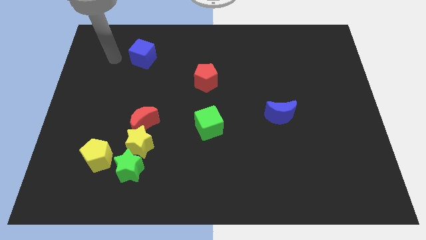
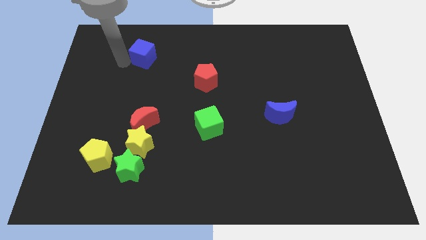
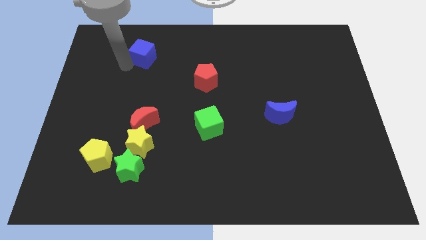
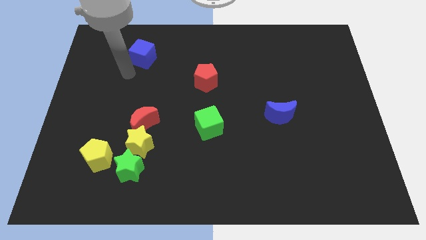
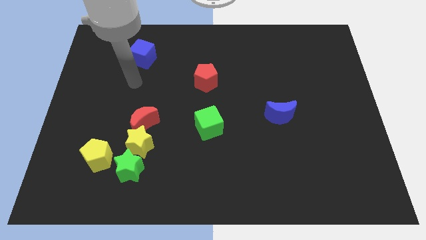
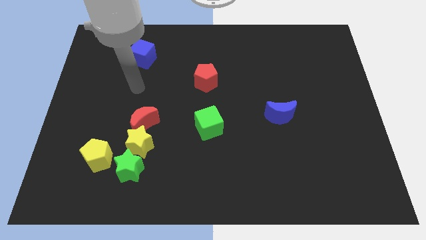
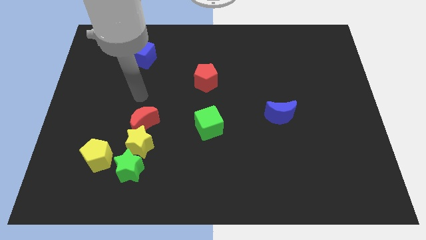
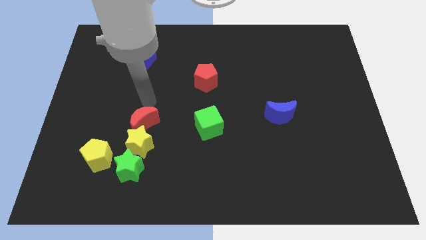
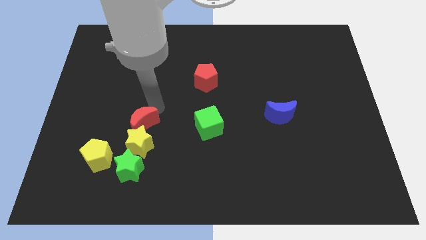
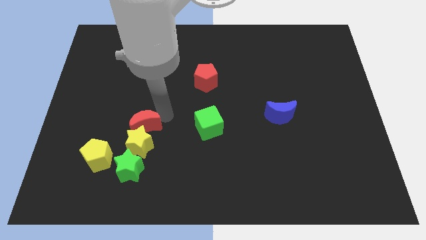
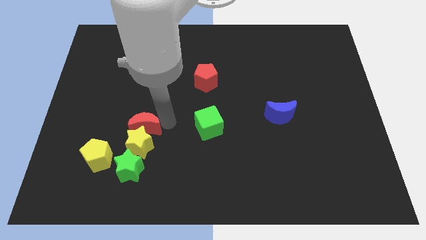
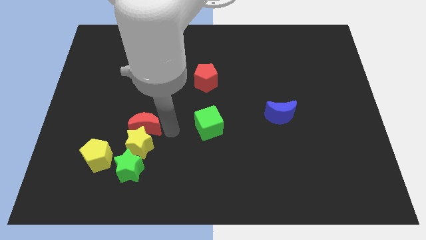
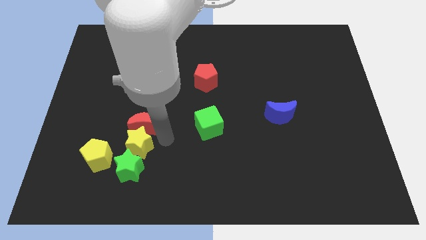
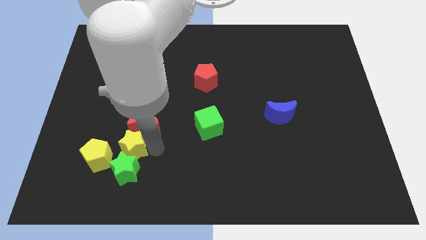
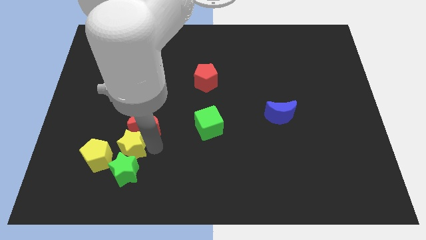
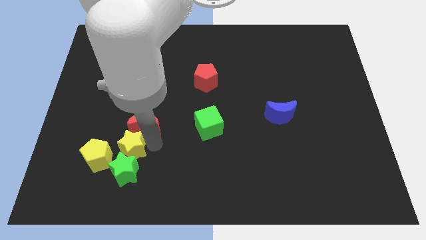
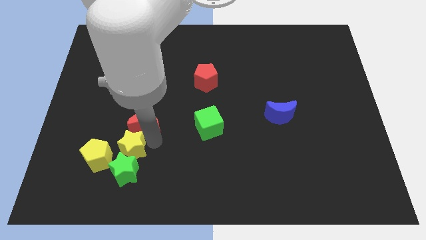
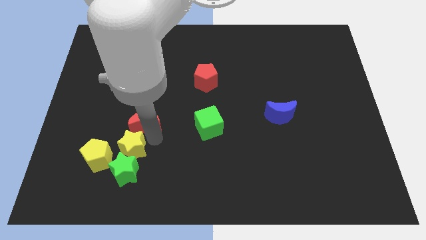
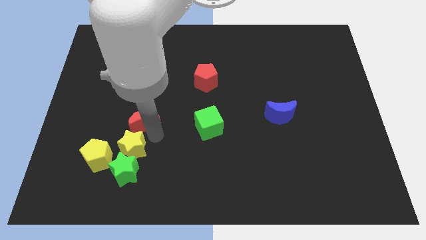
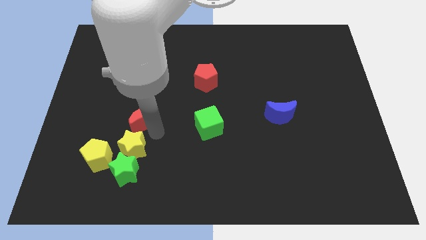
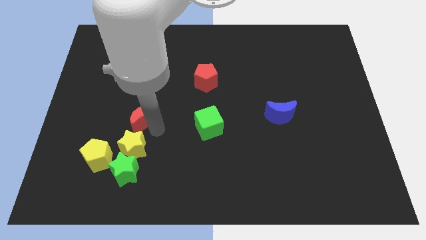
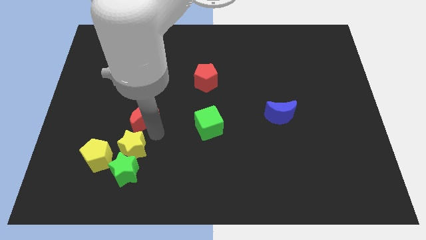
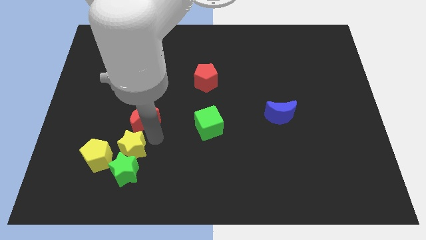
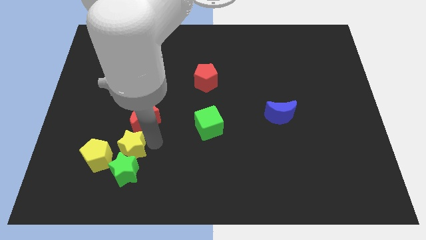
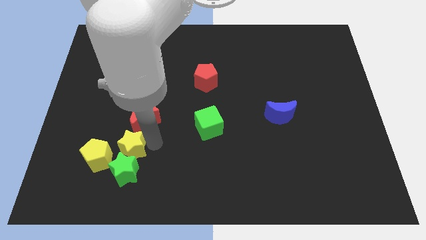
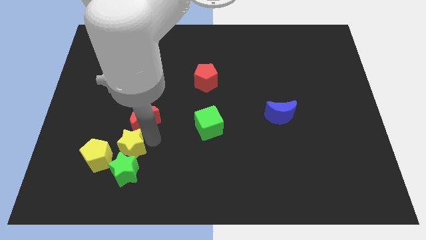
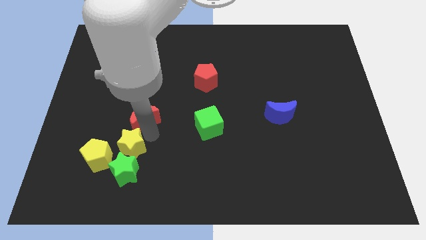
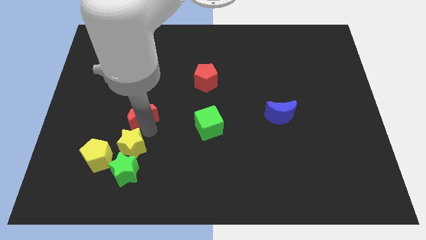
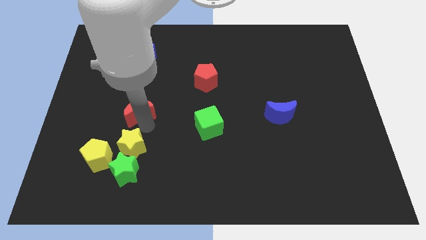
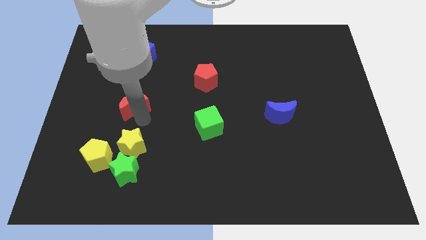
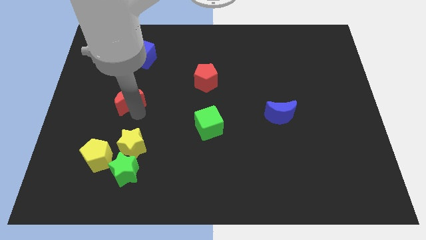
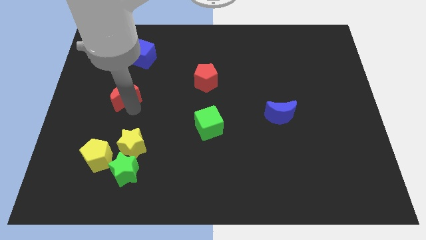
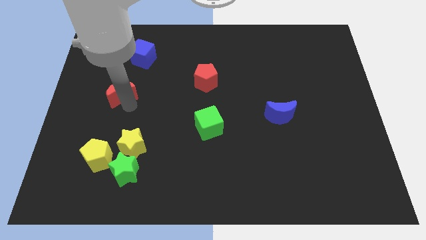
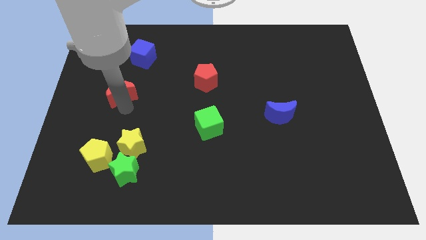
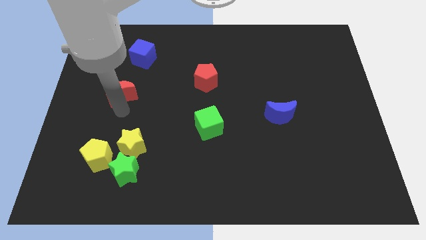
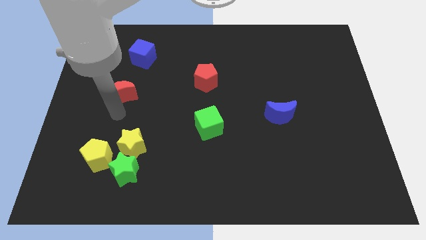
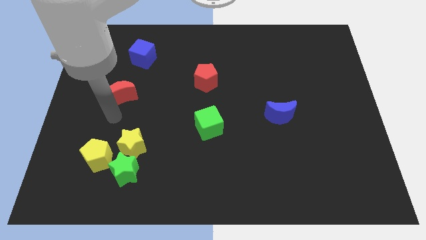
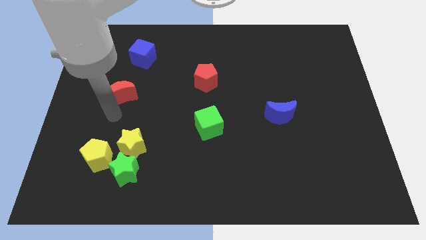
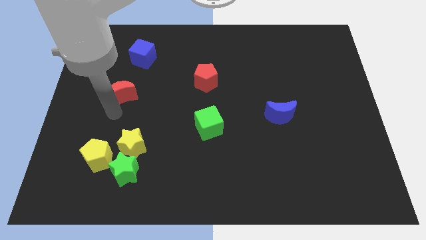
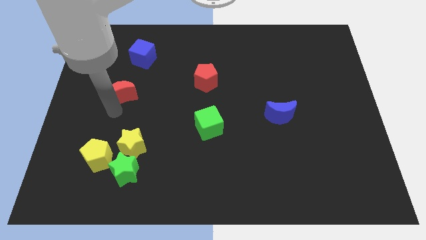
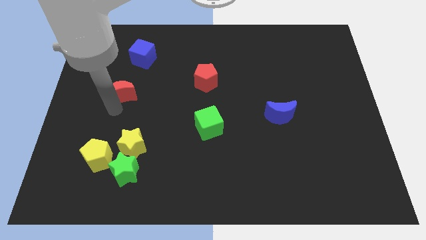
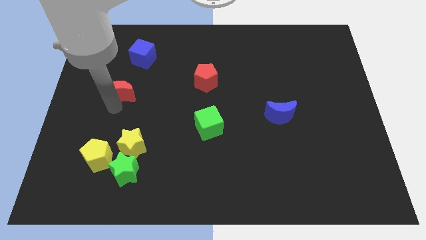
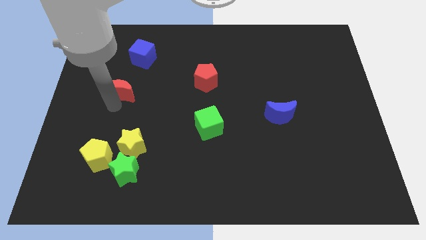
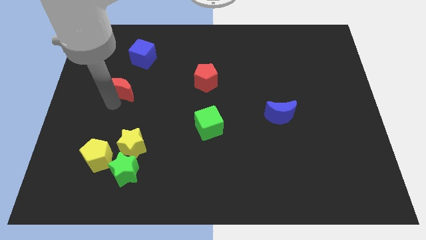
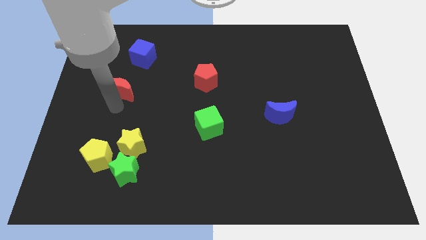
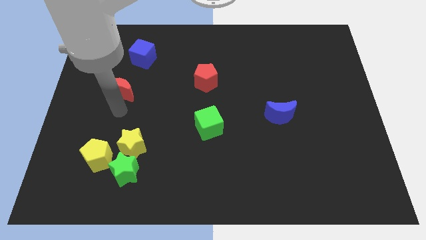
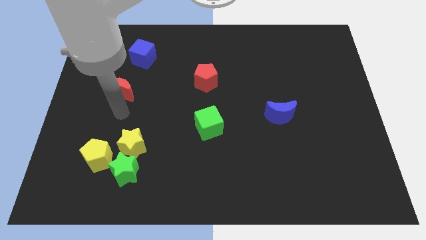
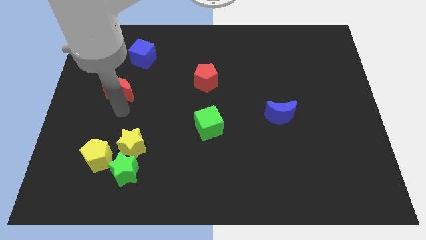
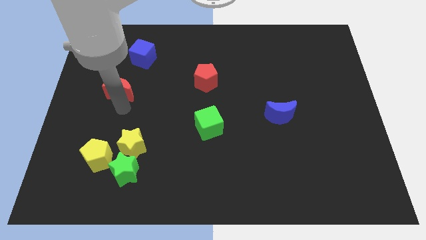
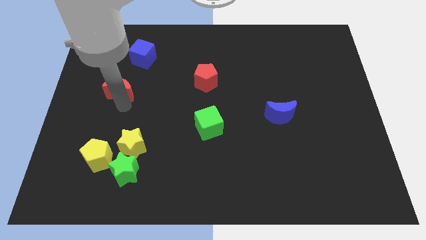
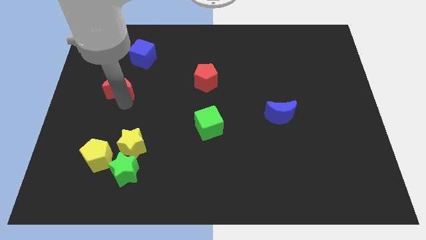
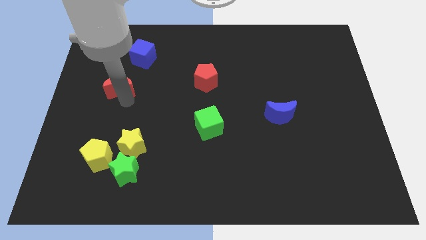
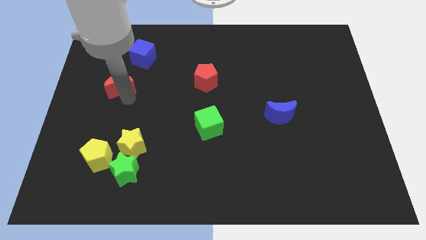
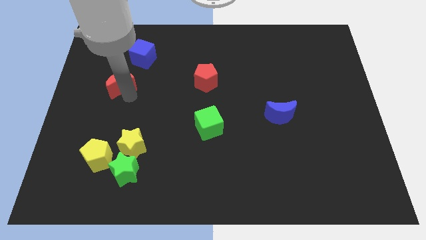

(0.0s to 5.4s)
slide the red moon diagonally down and to the left of the blue cube

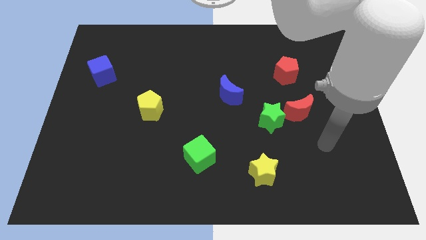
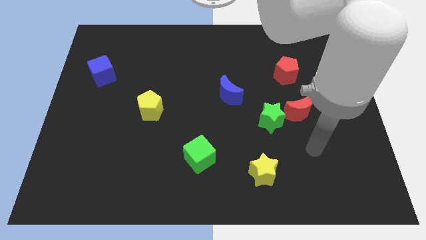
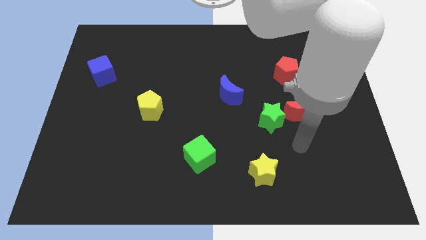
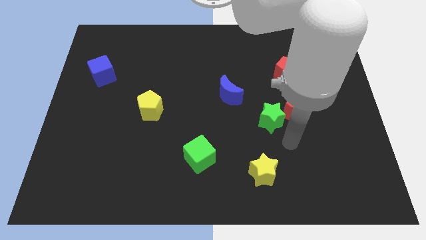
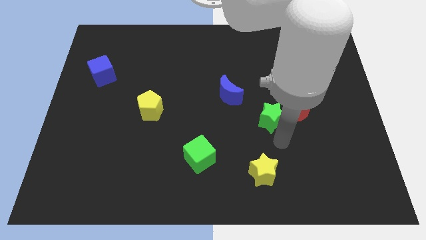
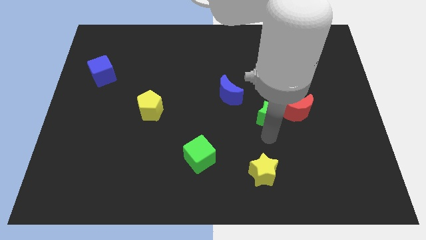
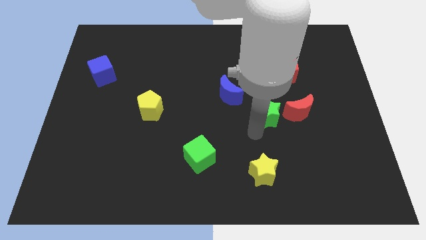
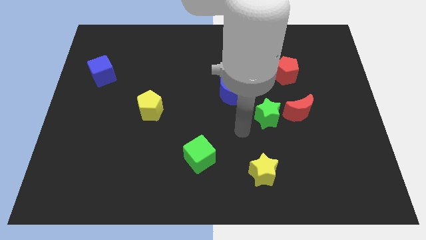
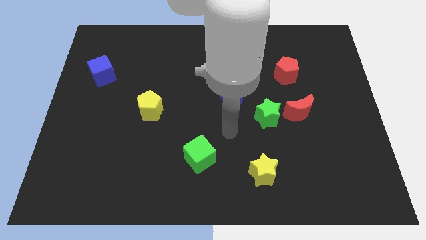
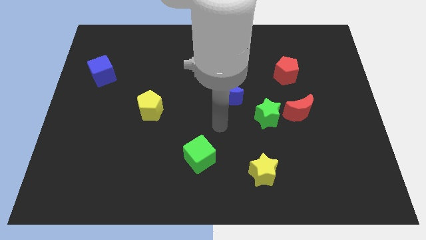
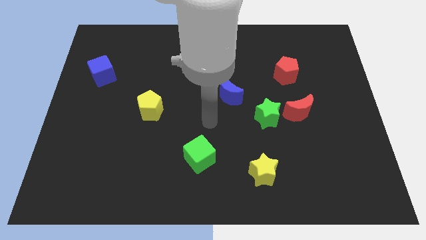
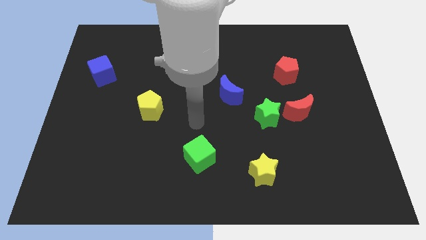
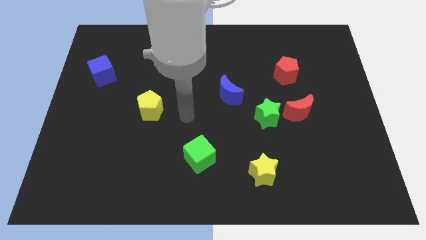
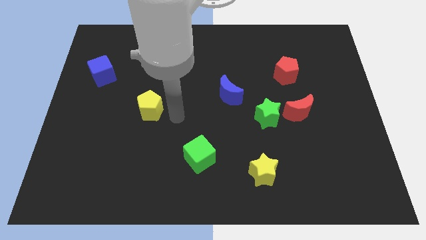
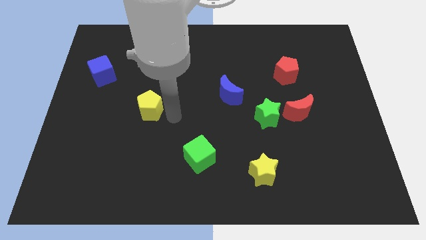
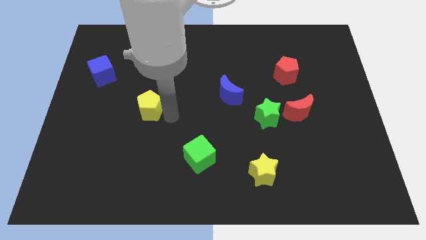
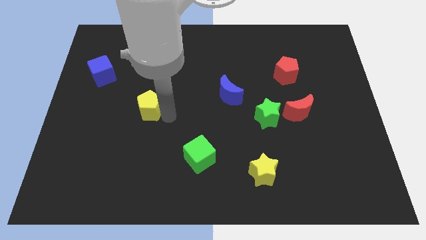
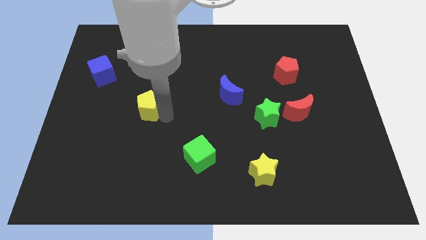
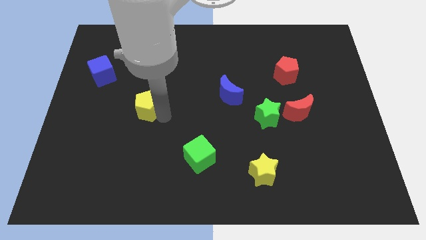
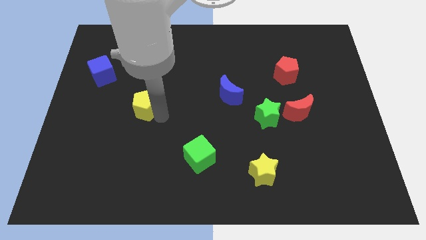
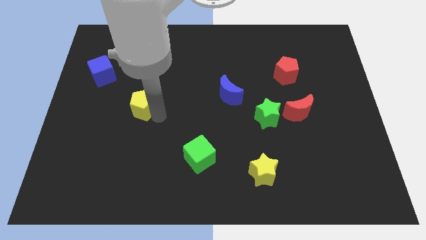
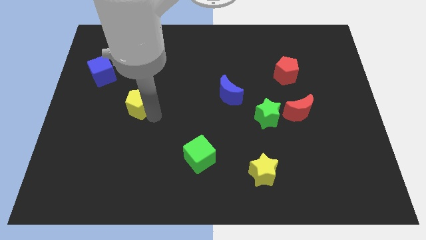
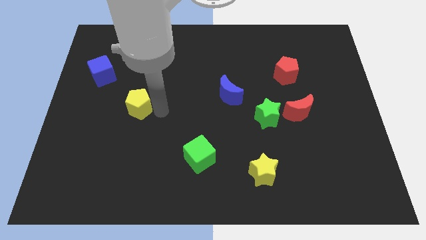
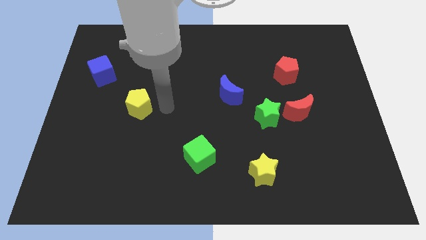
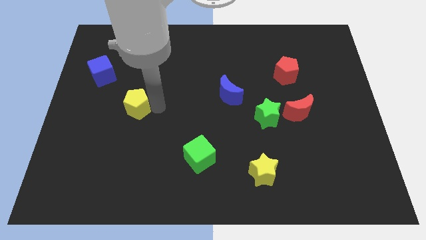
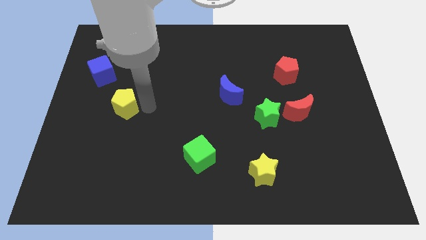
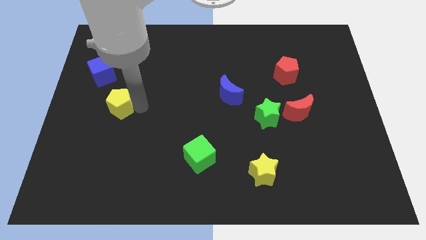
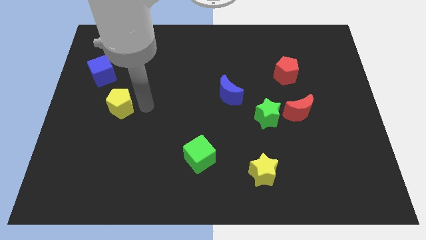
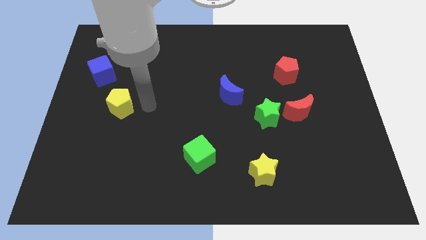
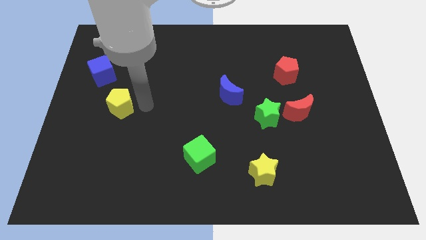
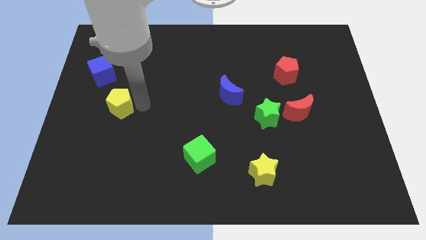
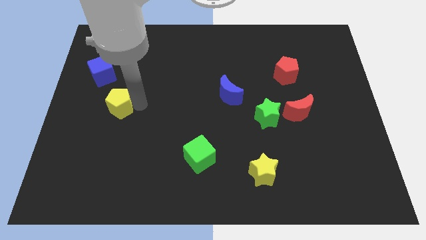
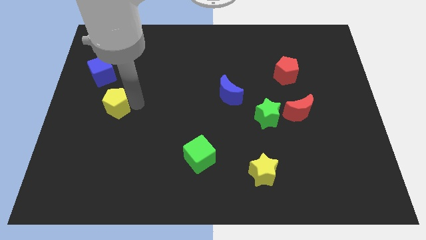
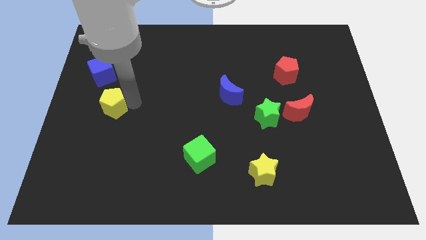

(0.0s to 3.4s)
push the yellow pentagon to the bottom side of the blue cube
